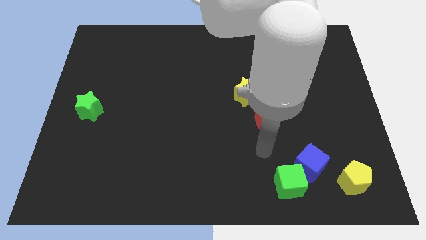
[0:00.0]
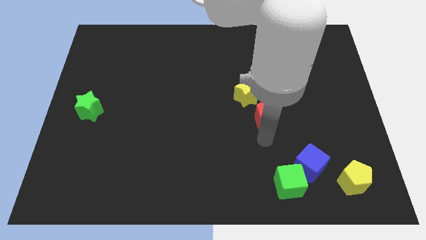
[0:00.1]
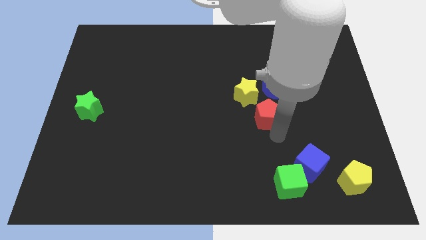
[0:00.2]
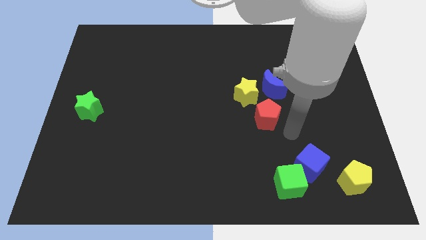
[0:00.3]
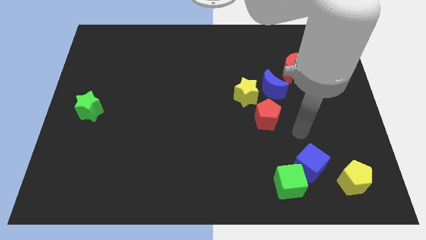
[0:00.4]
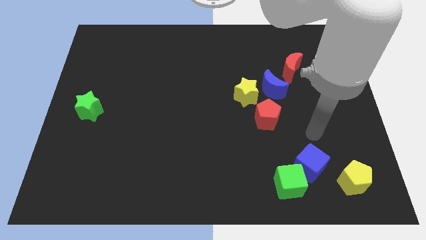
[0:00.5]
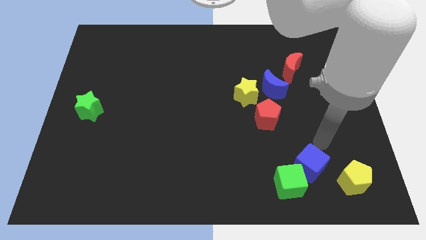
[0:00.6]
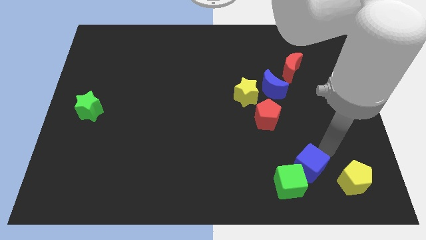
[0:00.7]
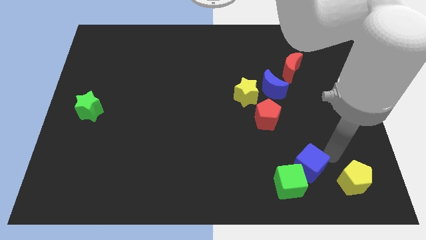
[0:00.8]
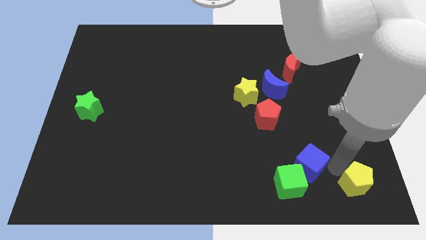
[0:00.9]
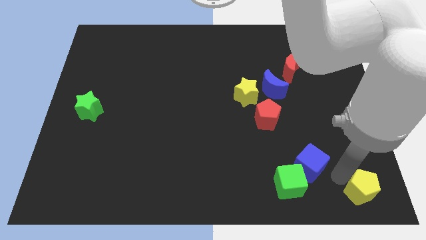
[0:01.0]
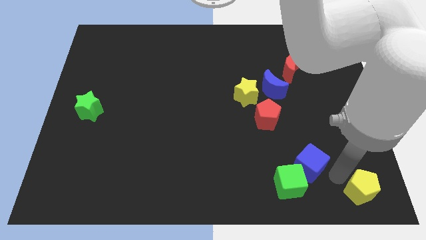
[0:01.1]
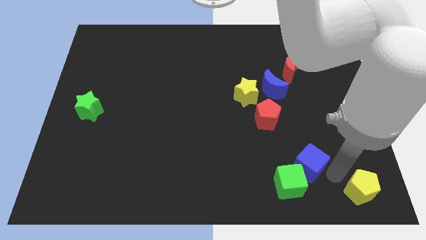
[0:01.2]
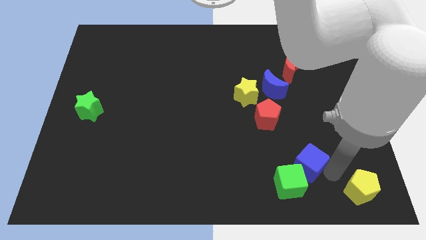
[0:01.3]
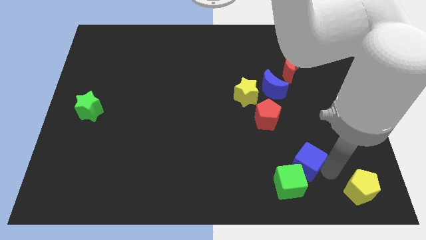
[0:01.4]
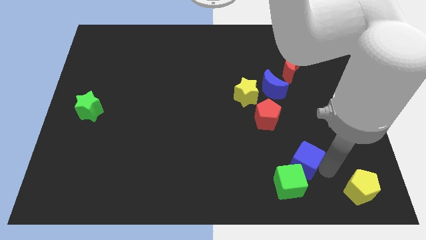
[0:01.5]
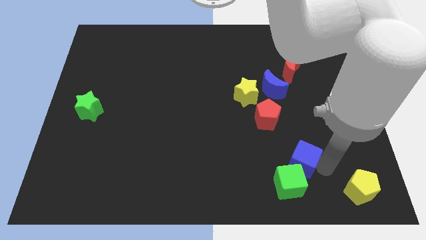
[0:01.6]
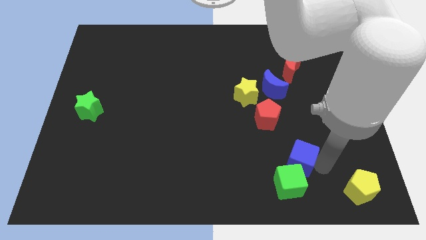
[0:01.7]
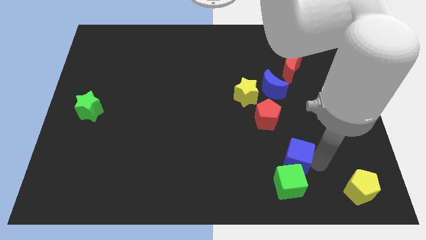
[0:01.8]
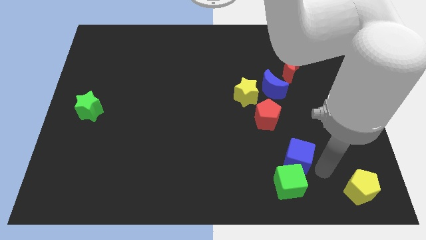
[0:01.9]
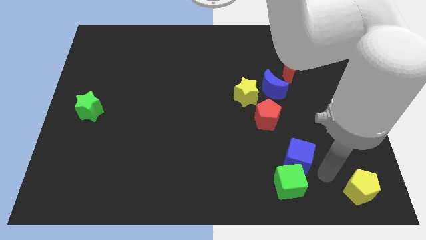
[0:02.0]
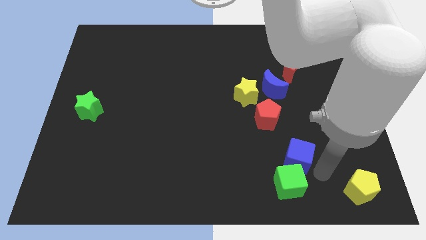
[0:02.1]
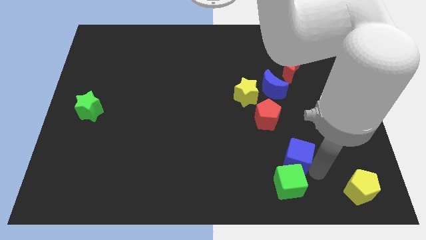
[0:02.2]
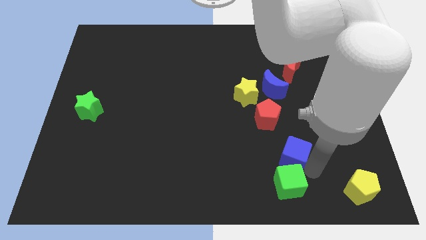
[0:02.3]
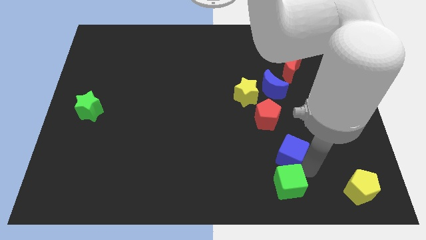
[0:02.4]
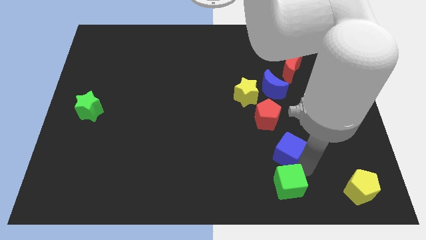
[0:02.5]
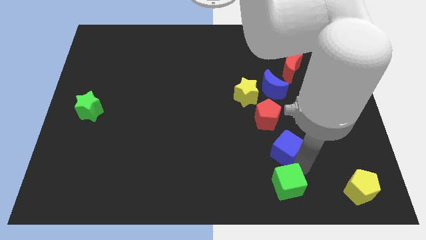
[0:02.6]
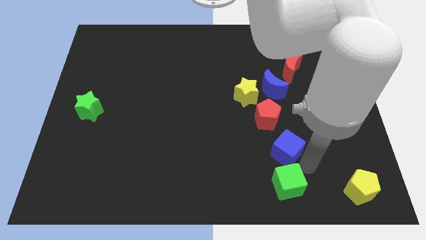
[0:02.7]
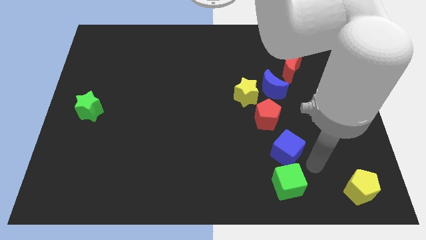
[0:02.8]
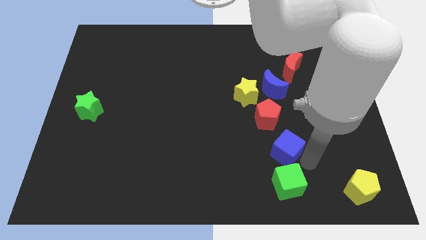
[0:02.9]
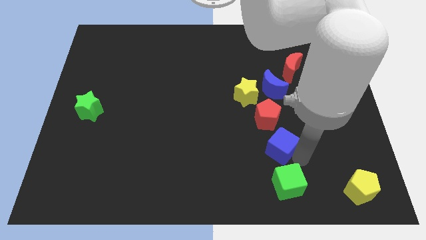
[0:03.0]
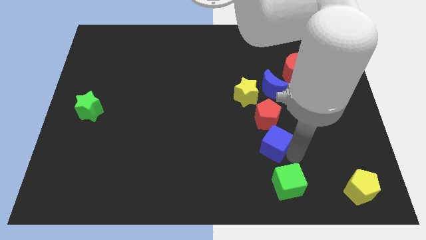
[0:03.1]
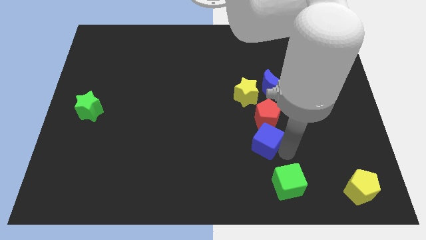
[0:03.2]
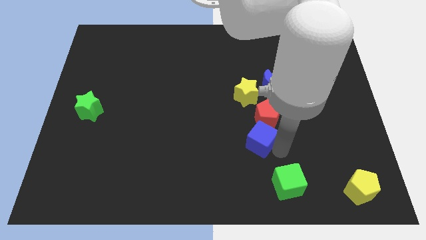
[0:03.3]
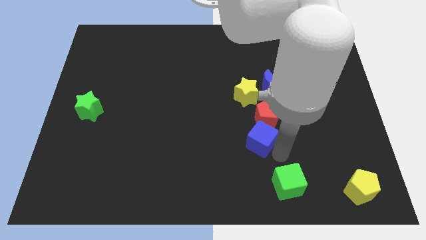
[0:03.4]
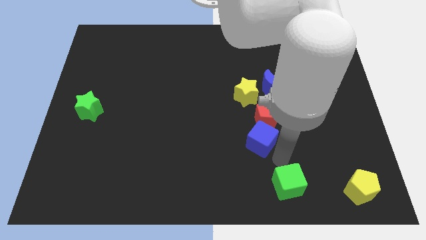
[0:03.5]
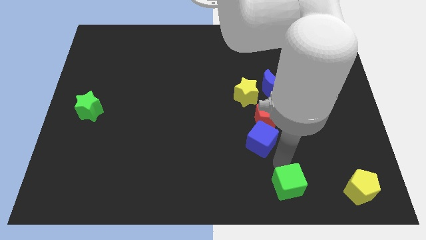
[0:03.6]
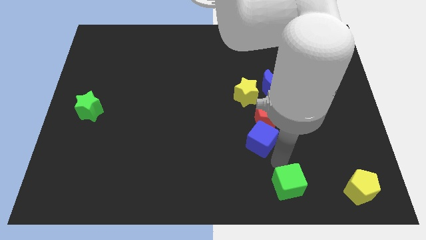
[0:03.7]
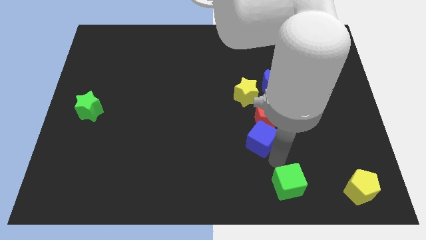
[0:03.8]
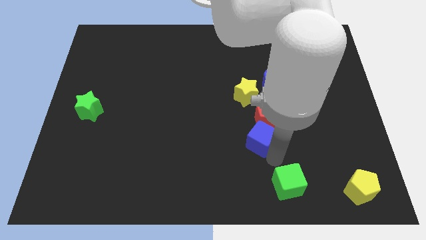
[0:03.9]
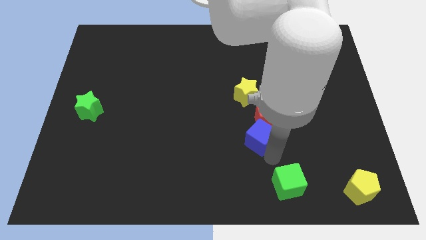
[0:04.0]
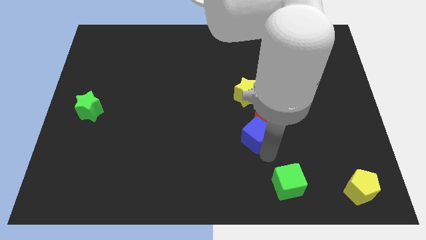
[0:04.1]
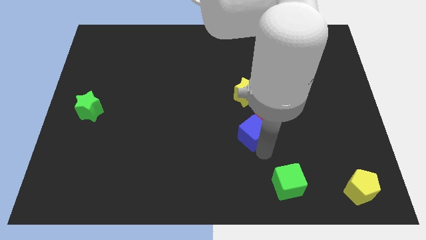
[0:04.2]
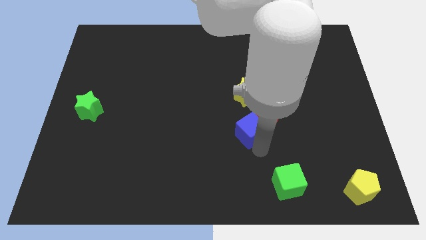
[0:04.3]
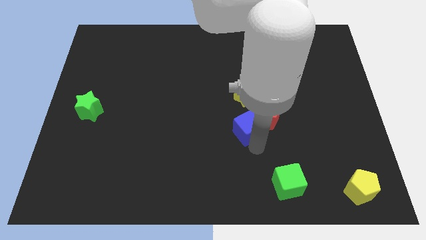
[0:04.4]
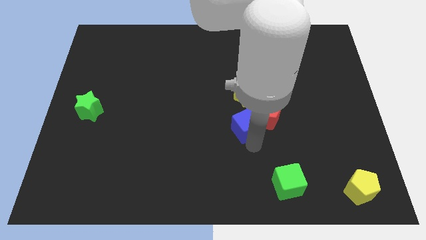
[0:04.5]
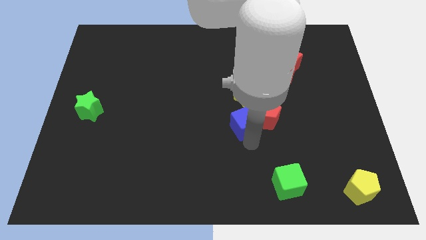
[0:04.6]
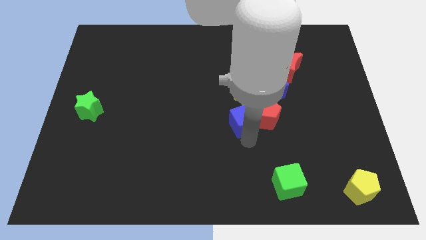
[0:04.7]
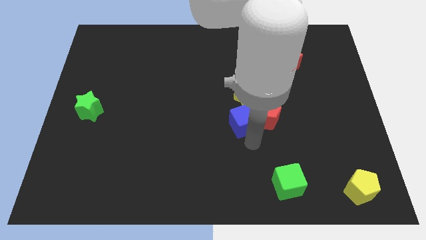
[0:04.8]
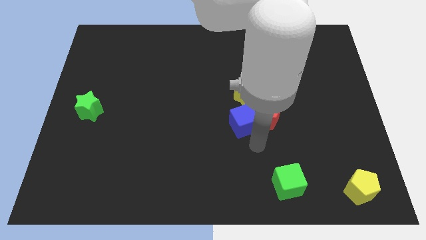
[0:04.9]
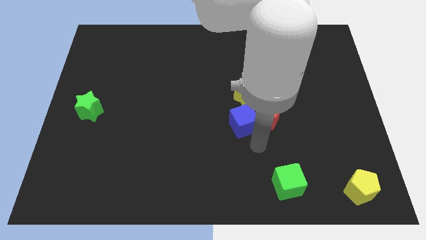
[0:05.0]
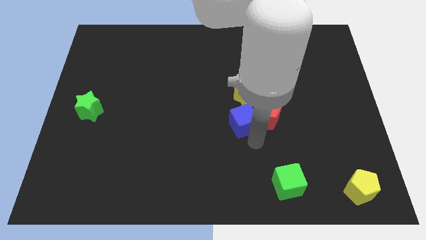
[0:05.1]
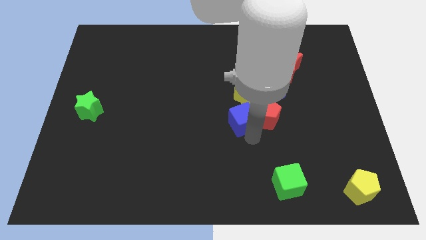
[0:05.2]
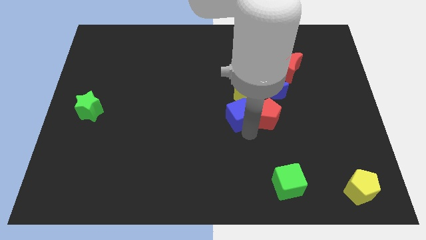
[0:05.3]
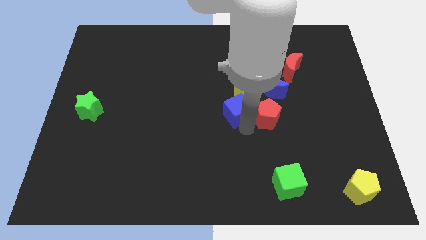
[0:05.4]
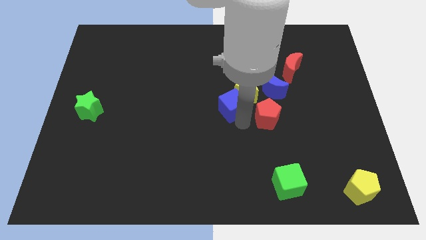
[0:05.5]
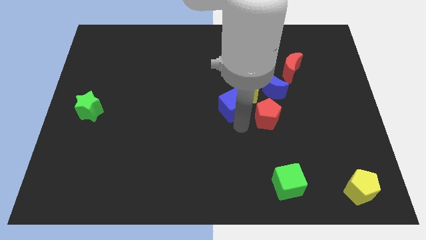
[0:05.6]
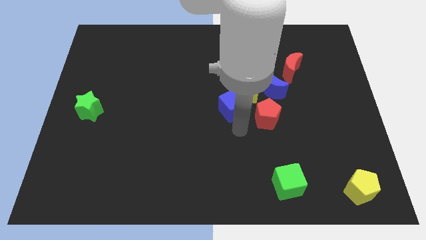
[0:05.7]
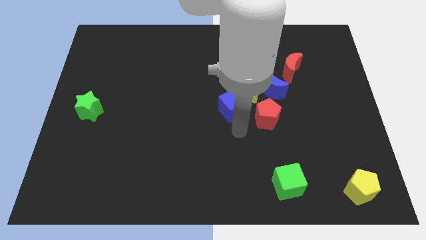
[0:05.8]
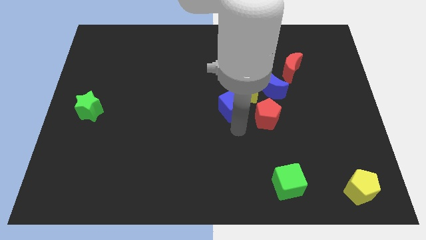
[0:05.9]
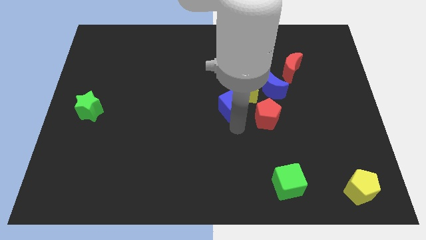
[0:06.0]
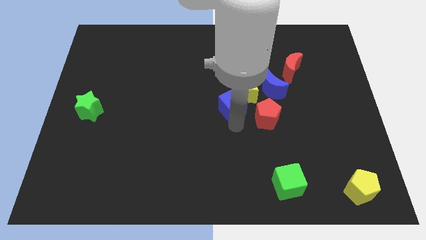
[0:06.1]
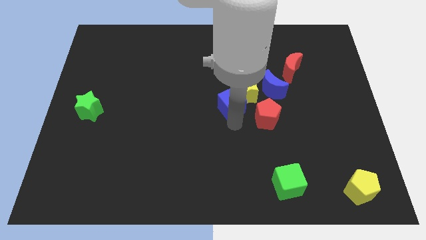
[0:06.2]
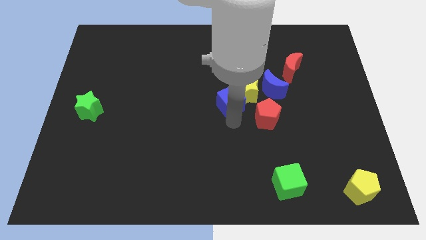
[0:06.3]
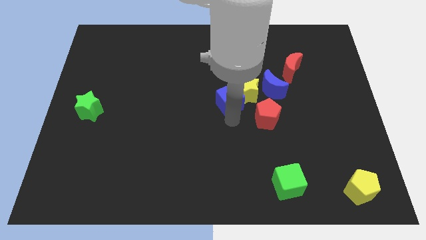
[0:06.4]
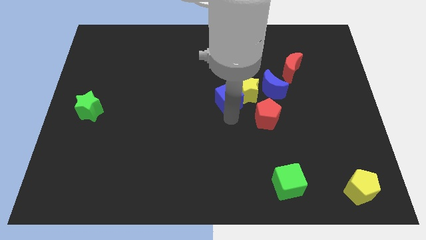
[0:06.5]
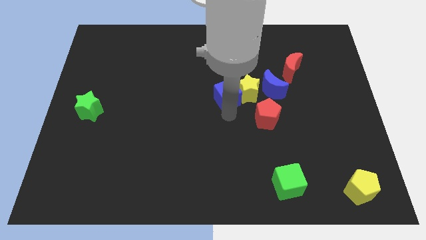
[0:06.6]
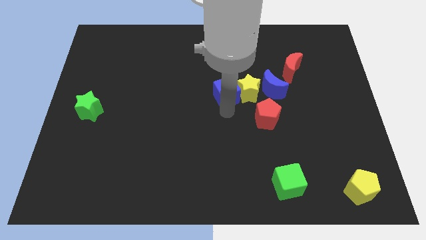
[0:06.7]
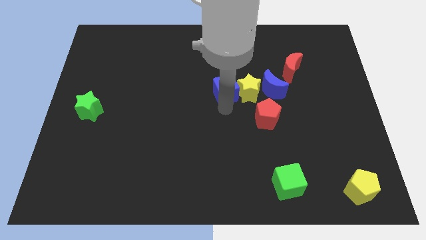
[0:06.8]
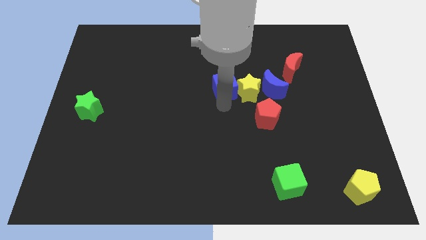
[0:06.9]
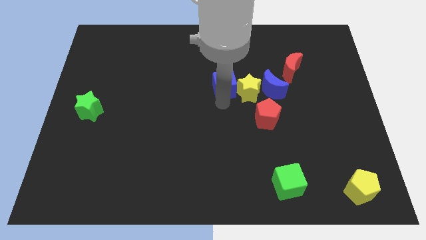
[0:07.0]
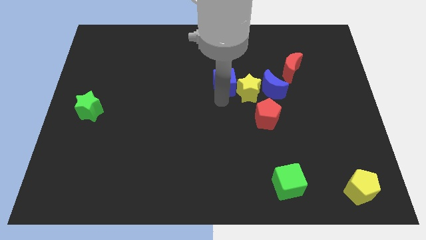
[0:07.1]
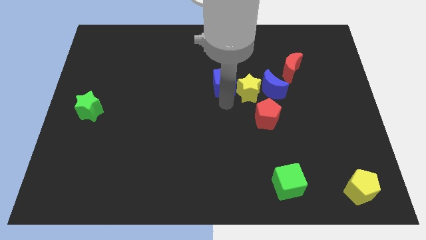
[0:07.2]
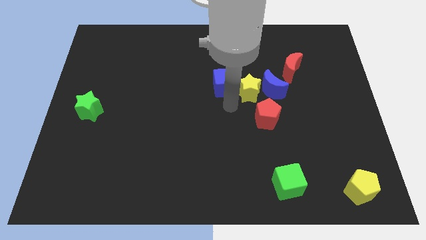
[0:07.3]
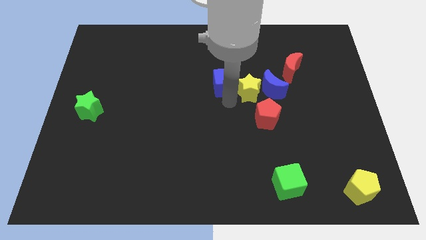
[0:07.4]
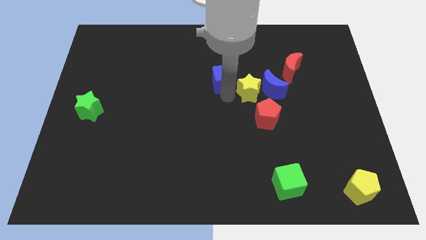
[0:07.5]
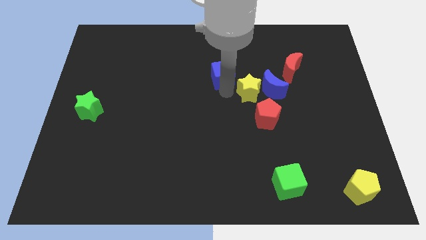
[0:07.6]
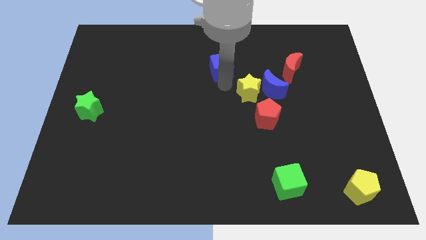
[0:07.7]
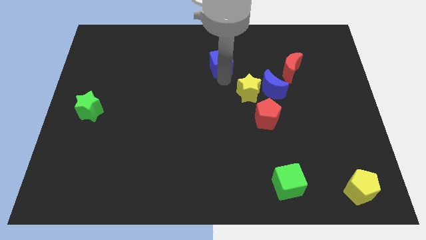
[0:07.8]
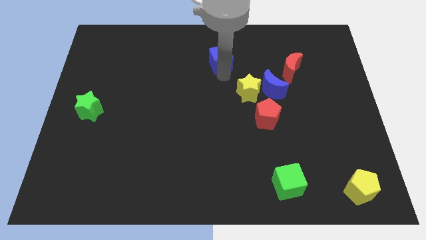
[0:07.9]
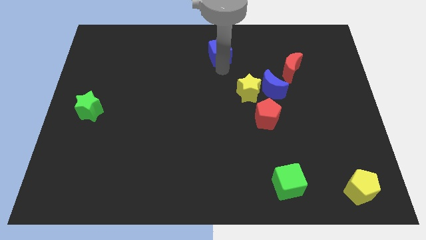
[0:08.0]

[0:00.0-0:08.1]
move the blue cube to the top side
